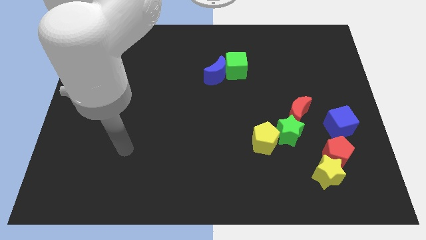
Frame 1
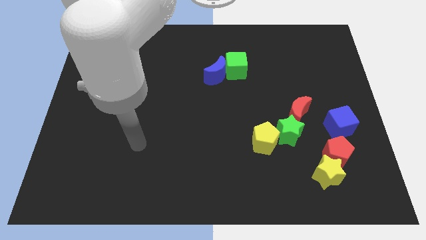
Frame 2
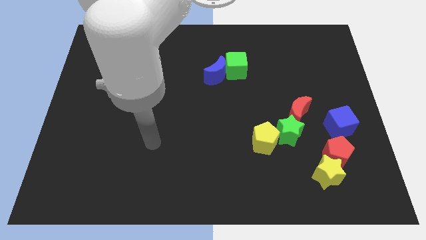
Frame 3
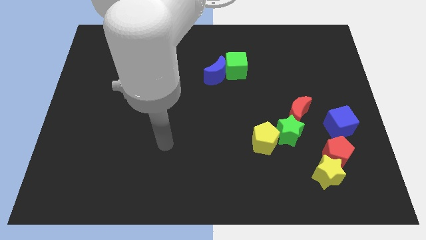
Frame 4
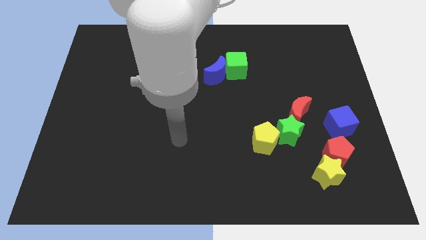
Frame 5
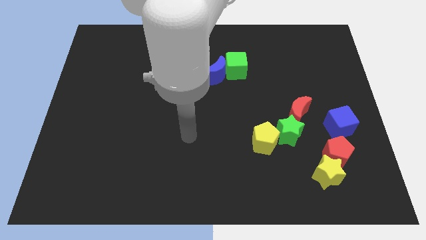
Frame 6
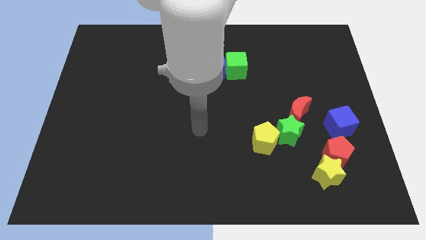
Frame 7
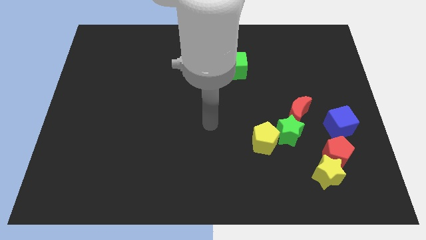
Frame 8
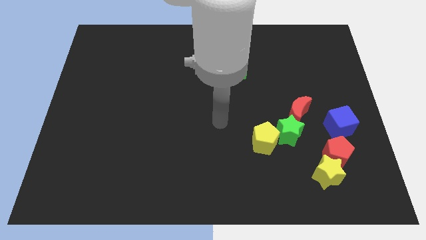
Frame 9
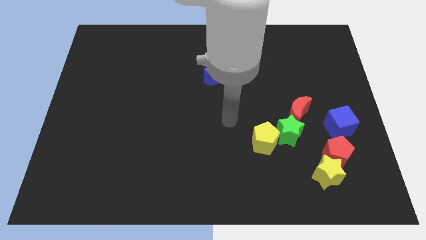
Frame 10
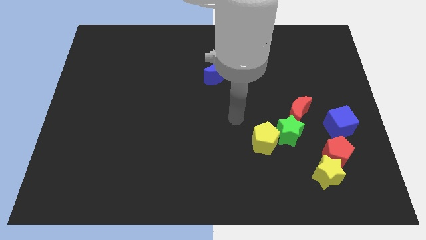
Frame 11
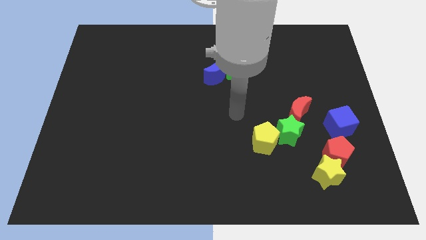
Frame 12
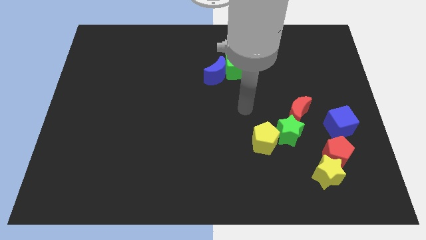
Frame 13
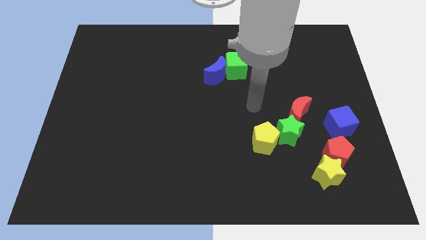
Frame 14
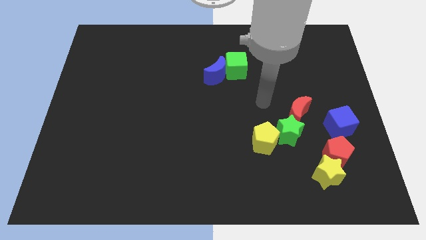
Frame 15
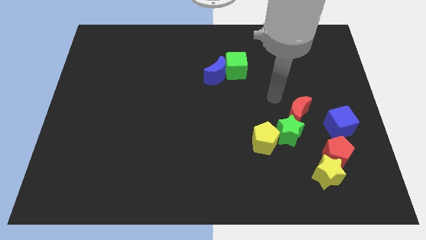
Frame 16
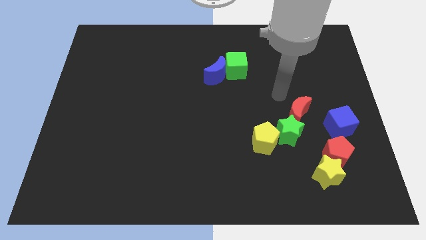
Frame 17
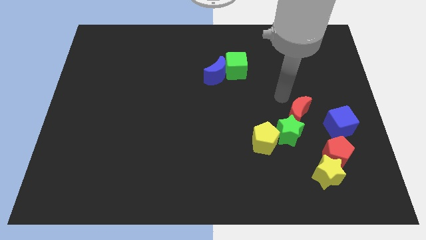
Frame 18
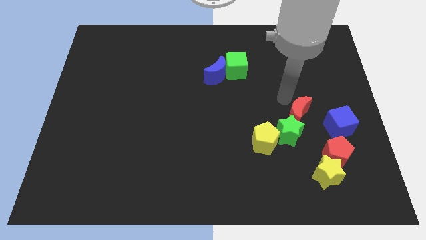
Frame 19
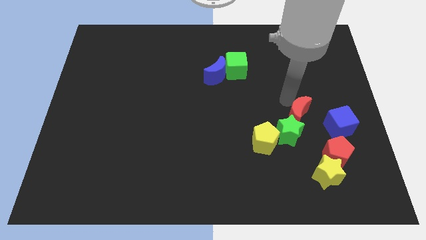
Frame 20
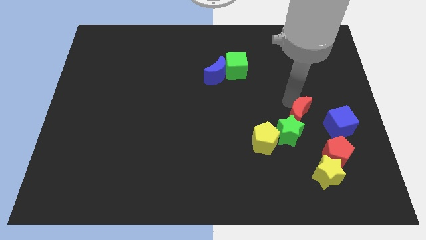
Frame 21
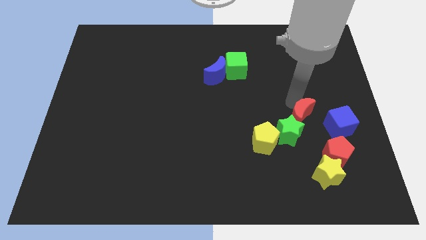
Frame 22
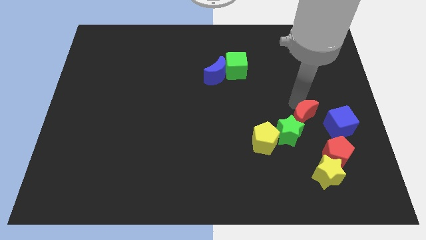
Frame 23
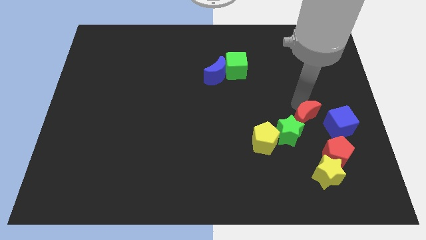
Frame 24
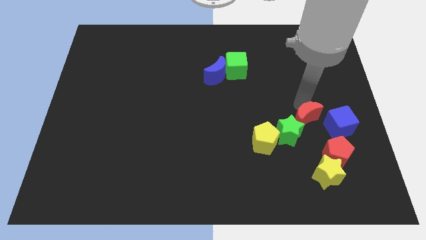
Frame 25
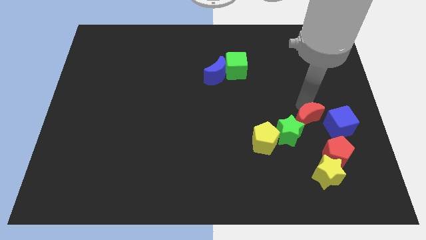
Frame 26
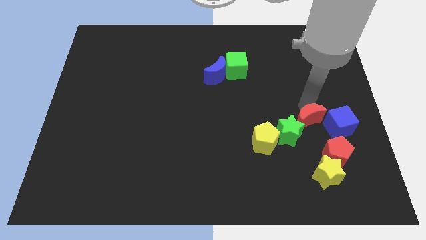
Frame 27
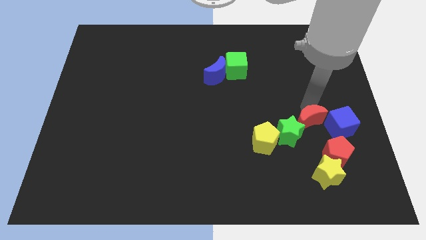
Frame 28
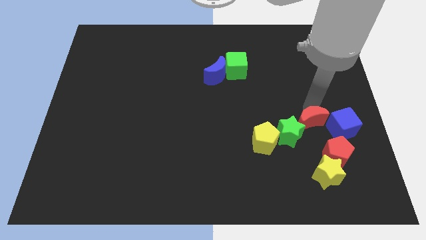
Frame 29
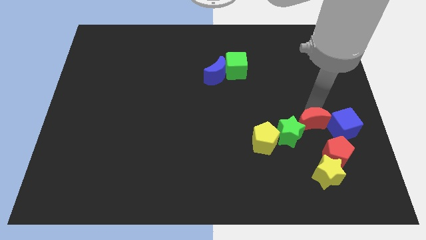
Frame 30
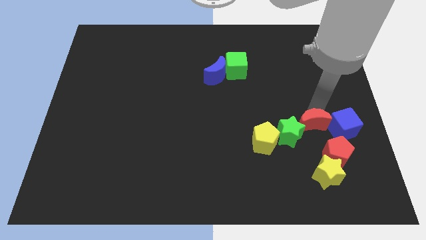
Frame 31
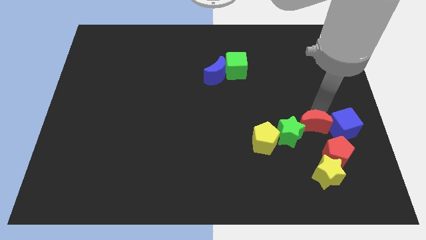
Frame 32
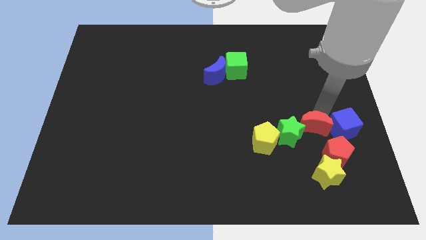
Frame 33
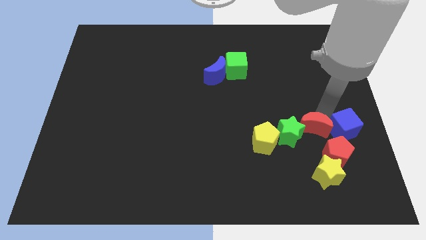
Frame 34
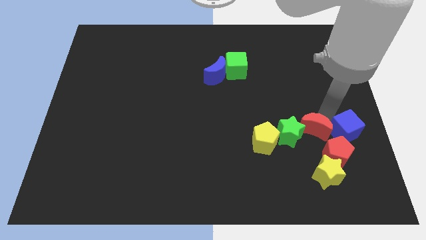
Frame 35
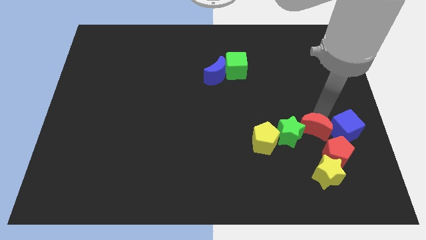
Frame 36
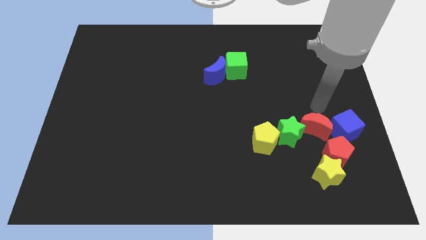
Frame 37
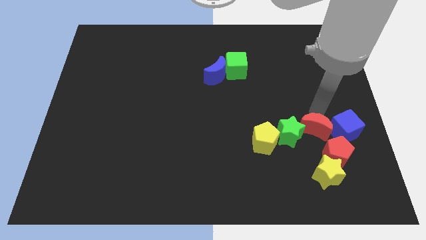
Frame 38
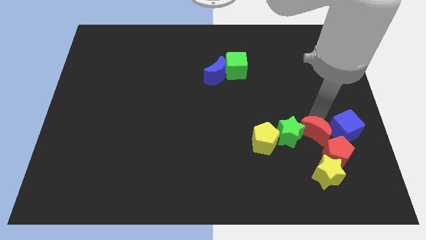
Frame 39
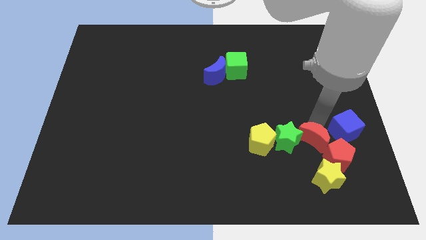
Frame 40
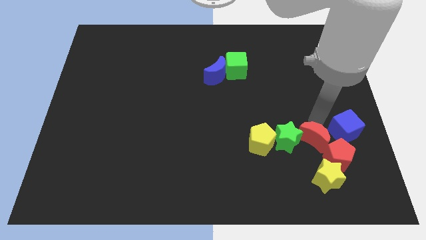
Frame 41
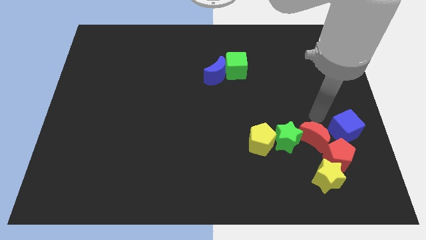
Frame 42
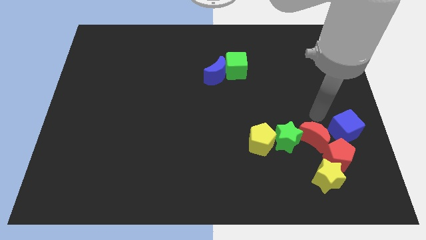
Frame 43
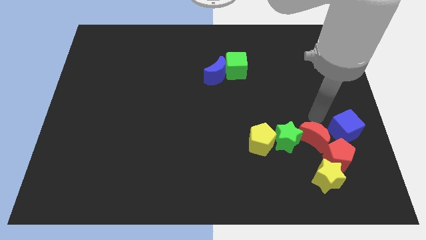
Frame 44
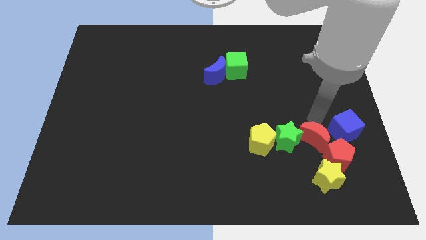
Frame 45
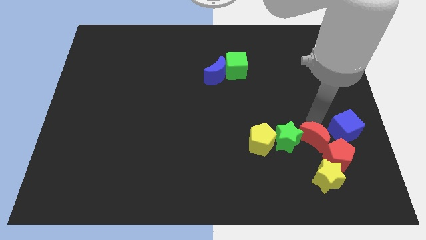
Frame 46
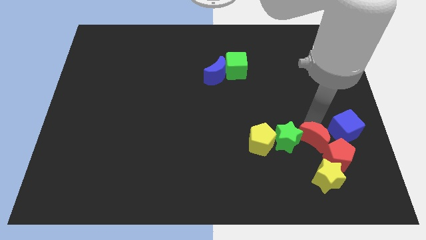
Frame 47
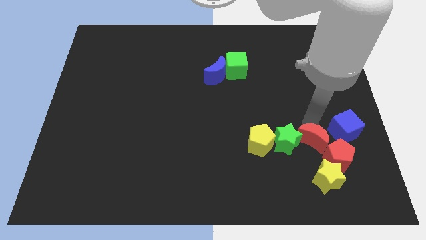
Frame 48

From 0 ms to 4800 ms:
slide the red moon to the left of the red pentagon

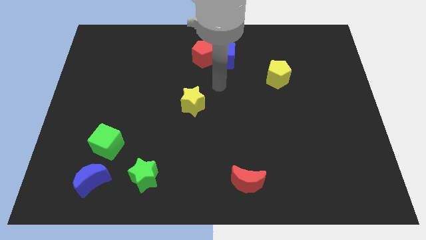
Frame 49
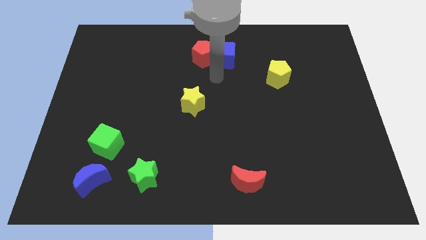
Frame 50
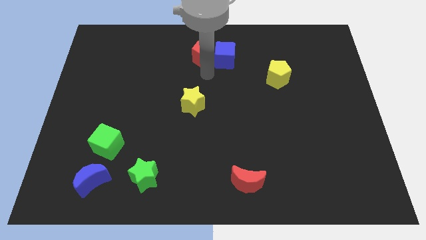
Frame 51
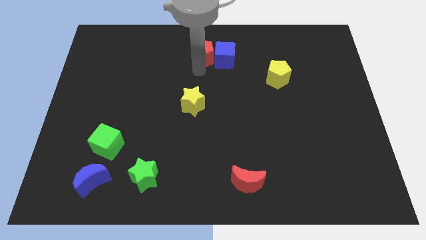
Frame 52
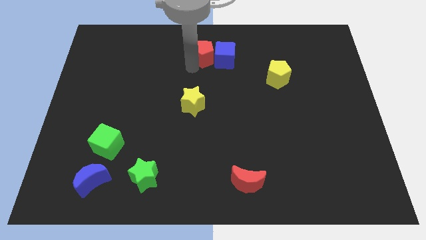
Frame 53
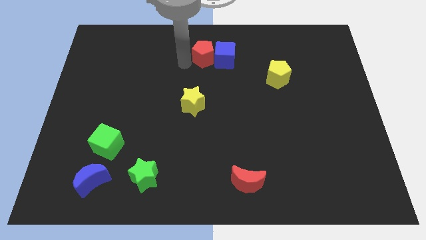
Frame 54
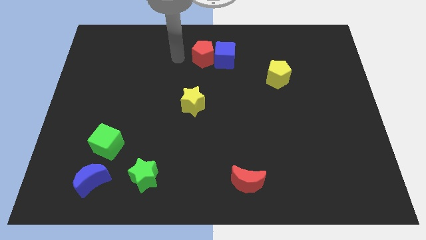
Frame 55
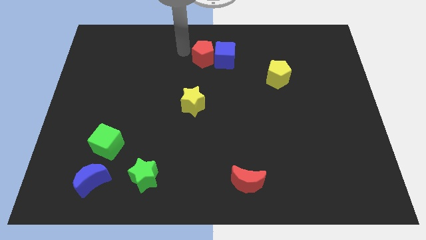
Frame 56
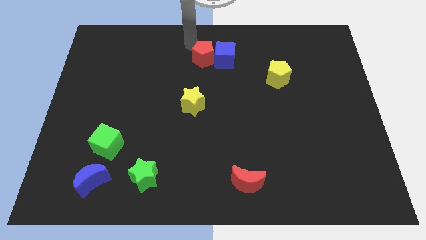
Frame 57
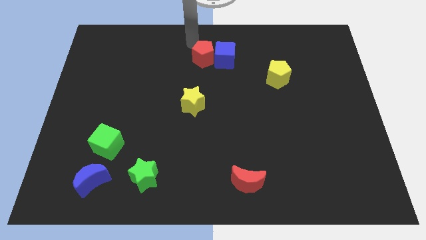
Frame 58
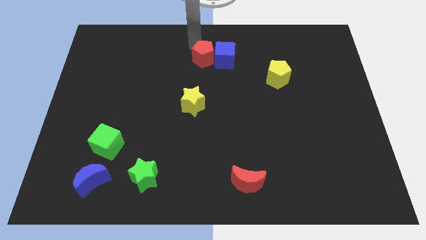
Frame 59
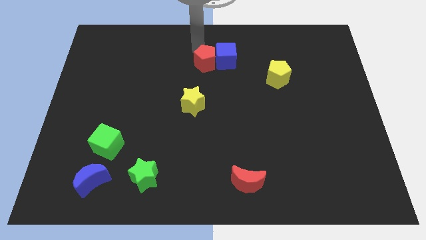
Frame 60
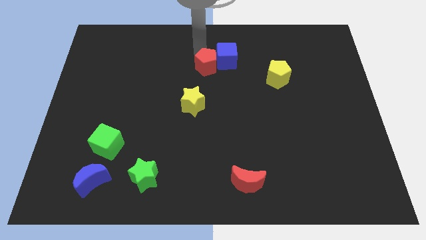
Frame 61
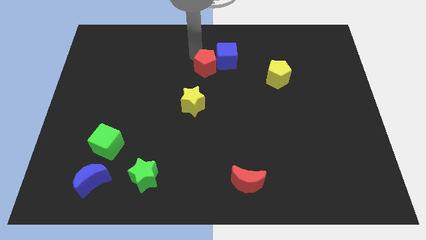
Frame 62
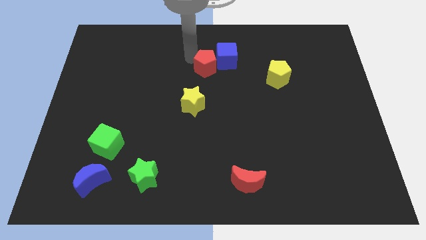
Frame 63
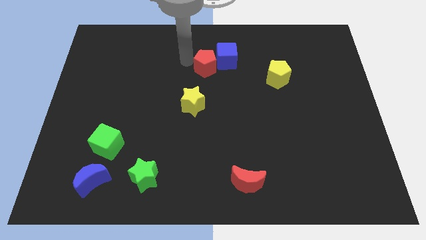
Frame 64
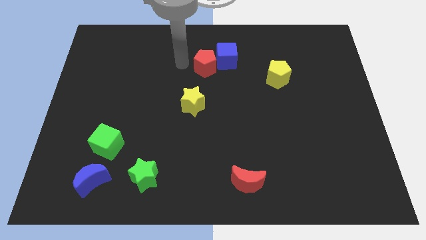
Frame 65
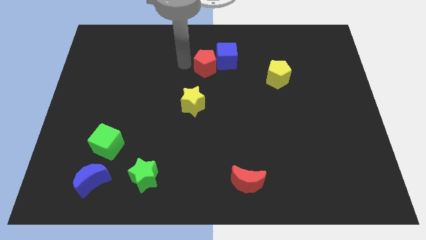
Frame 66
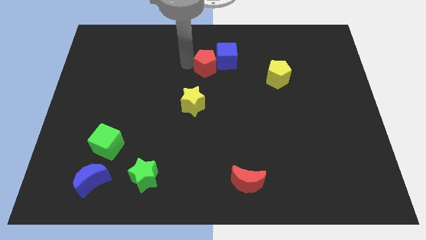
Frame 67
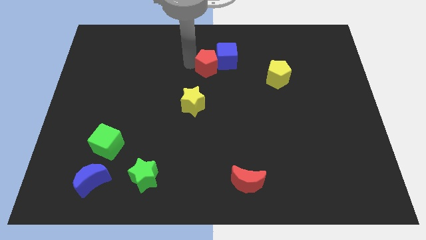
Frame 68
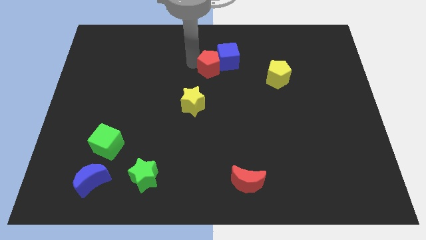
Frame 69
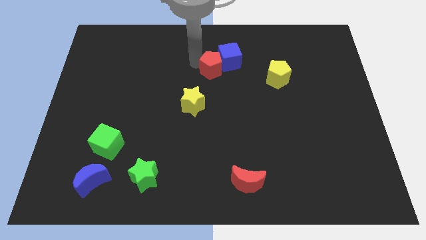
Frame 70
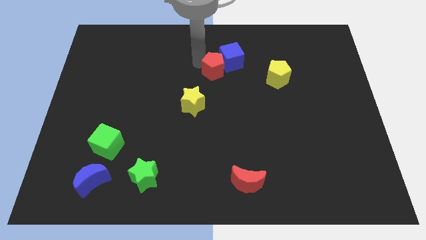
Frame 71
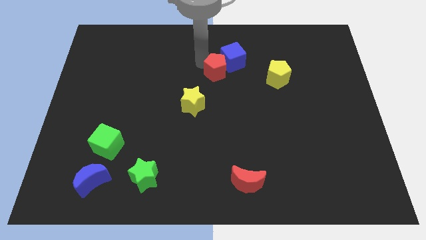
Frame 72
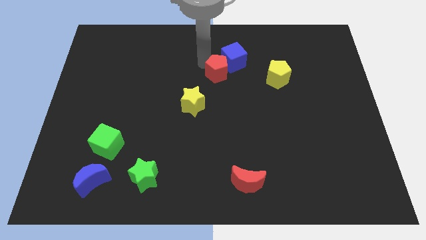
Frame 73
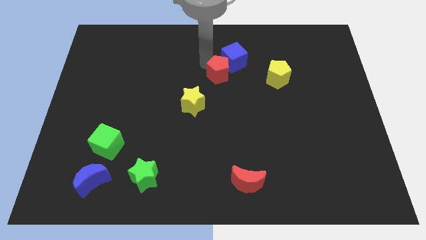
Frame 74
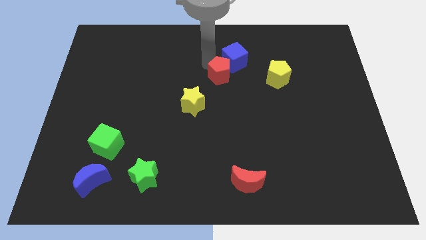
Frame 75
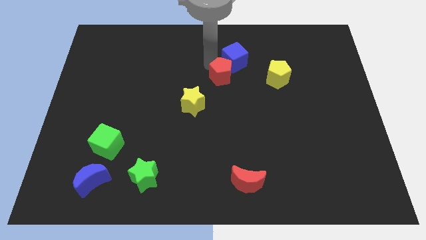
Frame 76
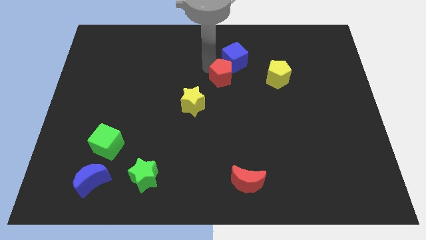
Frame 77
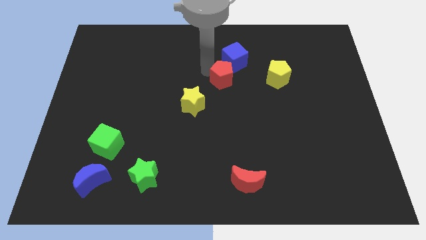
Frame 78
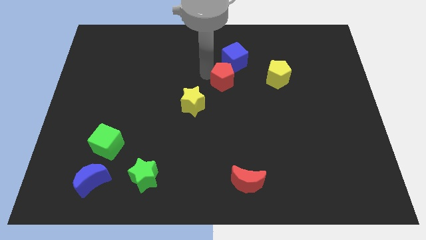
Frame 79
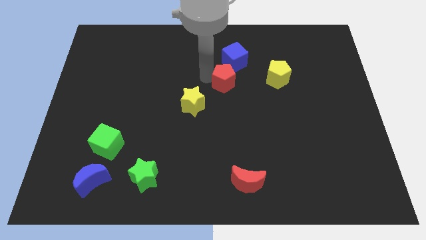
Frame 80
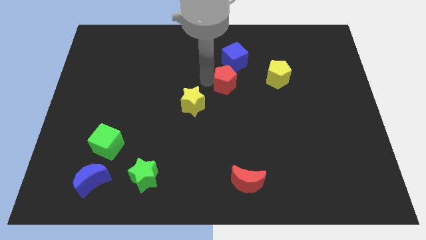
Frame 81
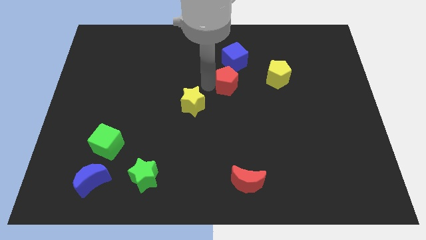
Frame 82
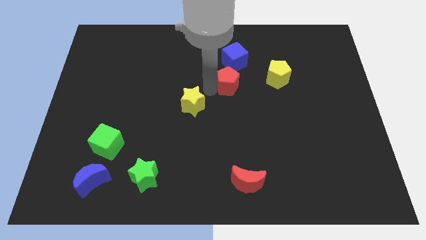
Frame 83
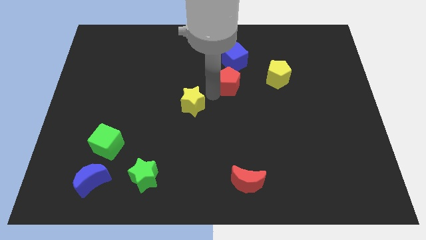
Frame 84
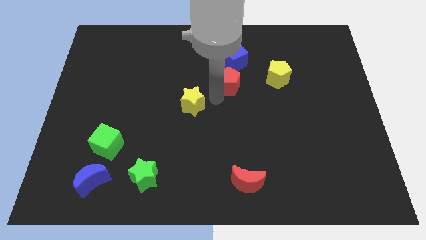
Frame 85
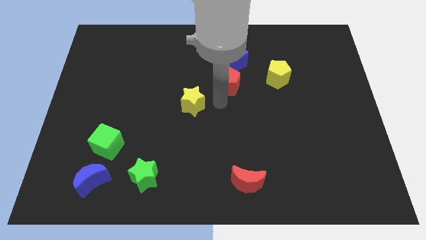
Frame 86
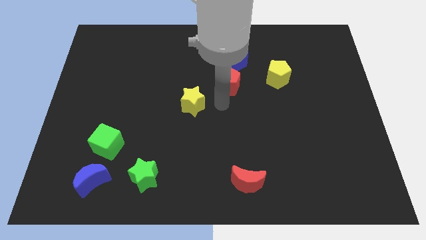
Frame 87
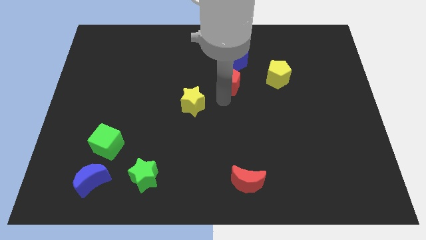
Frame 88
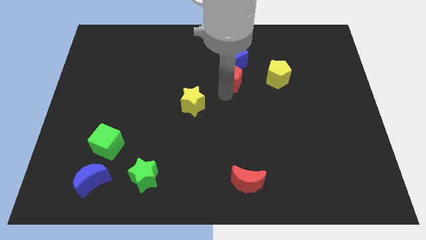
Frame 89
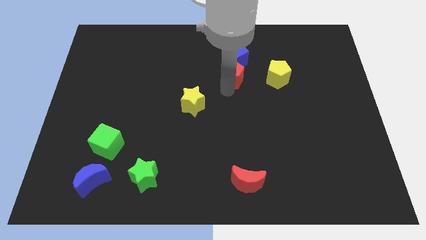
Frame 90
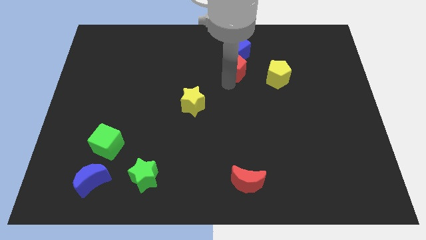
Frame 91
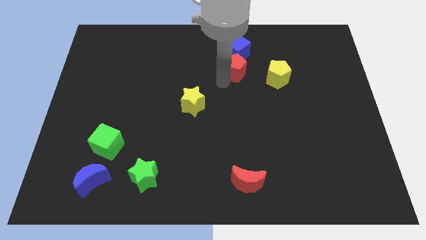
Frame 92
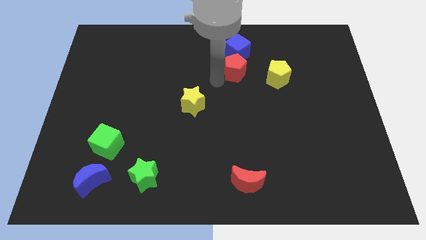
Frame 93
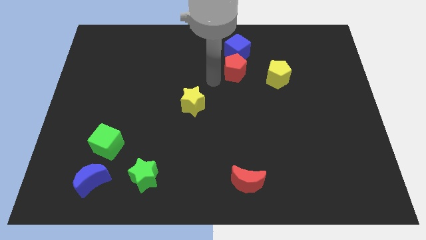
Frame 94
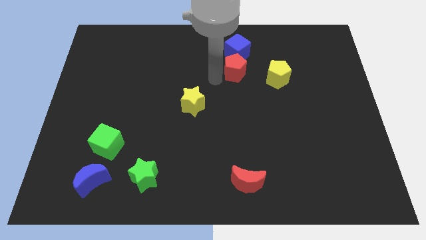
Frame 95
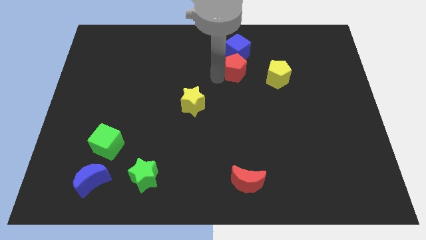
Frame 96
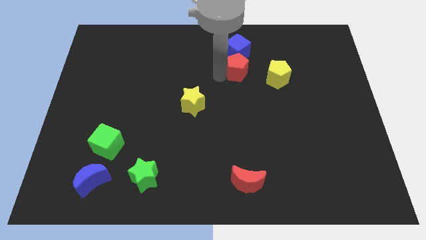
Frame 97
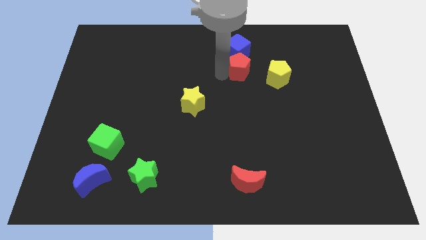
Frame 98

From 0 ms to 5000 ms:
move the red pentagon to the top left of the yellow pentagon
